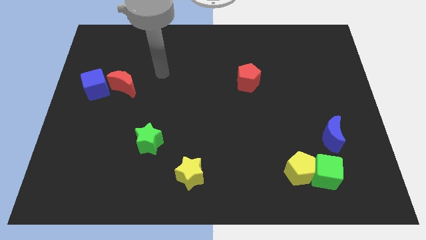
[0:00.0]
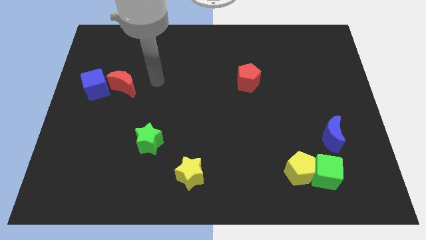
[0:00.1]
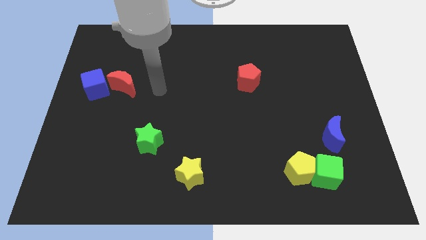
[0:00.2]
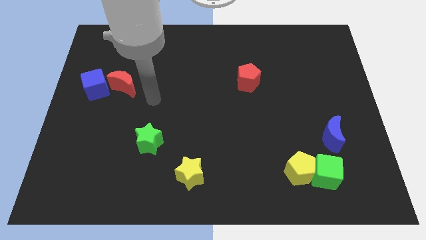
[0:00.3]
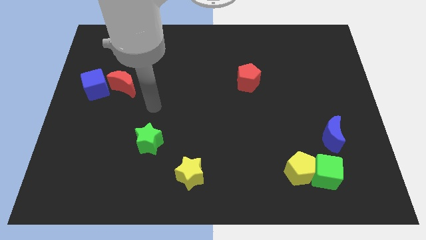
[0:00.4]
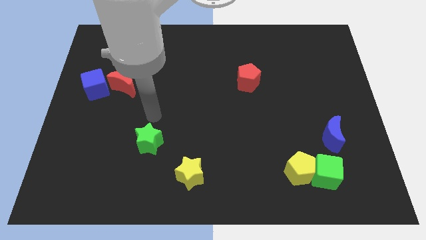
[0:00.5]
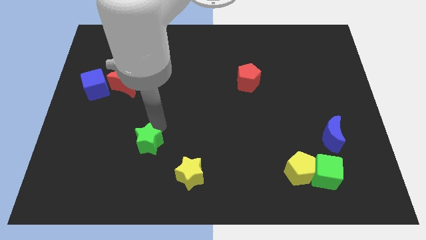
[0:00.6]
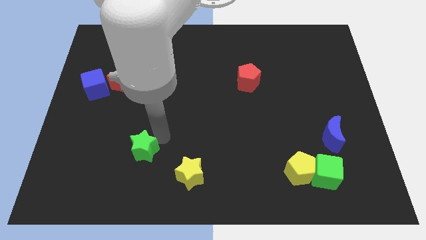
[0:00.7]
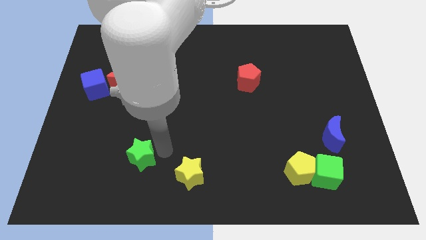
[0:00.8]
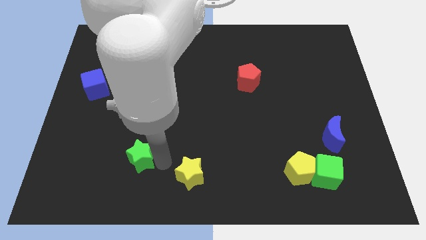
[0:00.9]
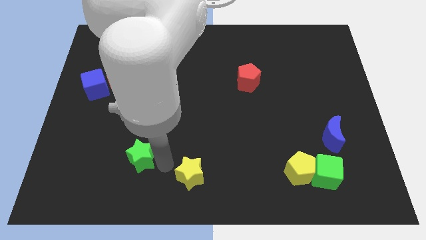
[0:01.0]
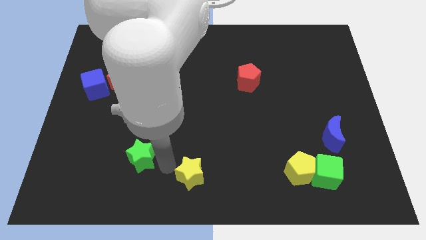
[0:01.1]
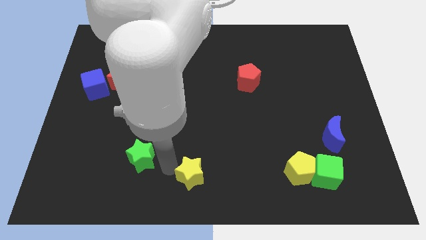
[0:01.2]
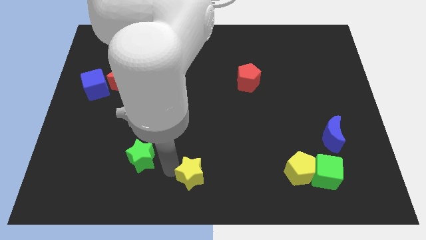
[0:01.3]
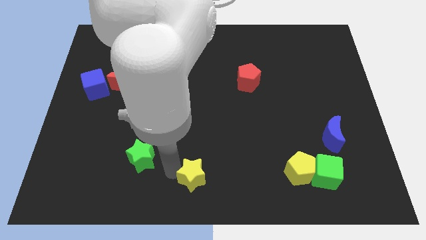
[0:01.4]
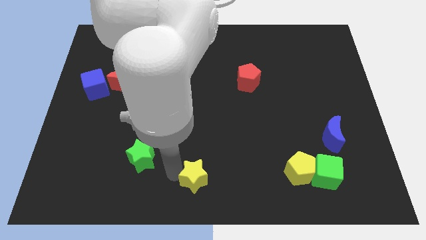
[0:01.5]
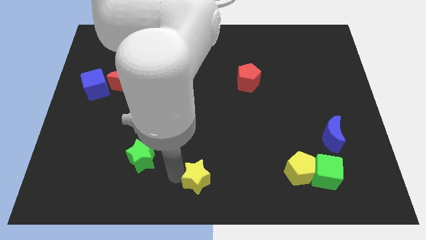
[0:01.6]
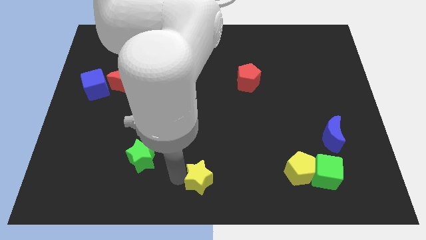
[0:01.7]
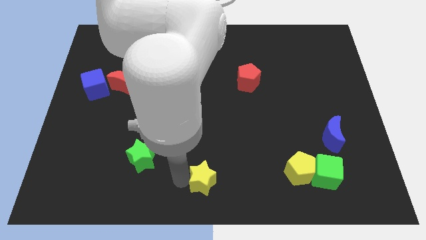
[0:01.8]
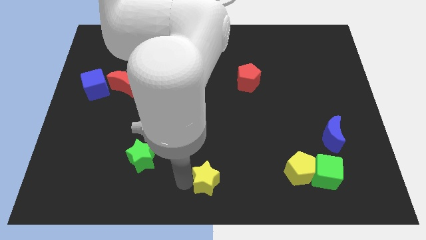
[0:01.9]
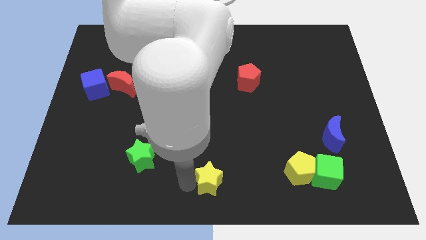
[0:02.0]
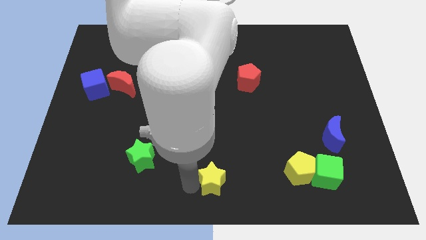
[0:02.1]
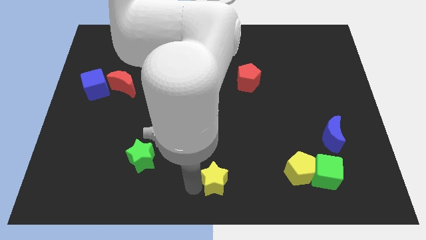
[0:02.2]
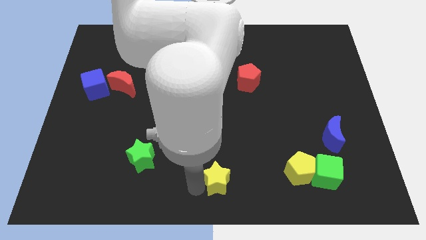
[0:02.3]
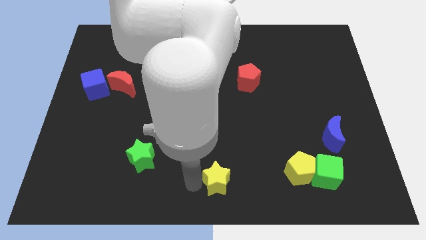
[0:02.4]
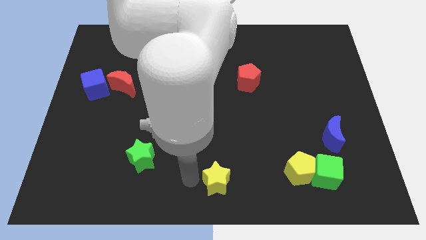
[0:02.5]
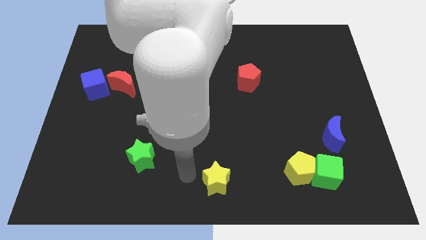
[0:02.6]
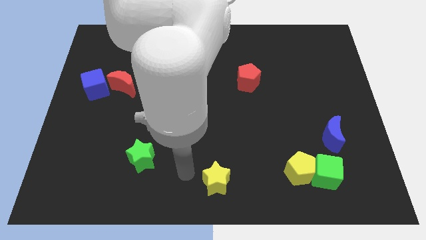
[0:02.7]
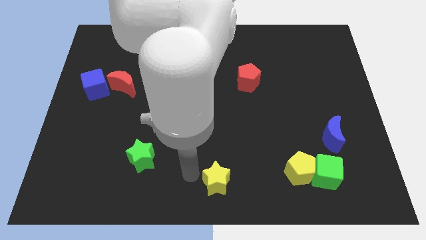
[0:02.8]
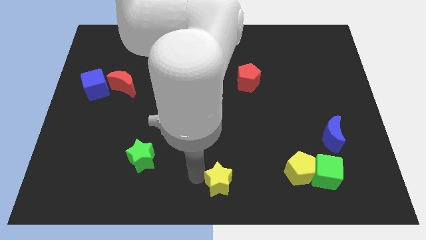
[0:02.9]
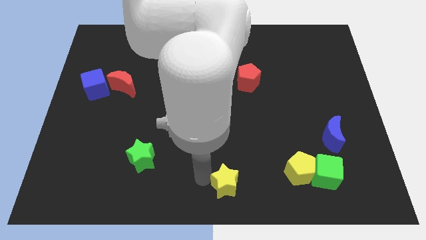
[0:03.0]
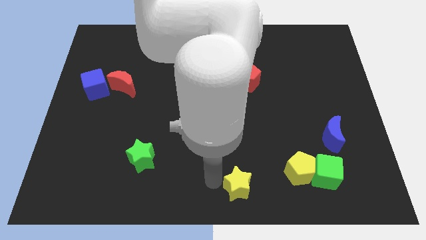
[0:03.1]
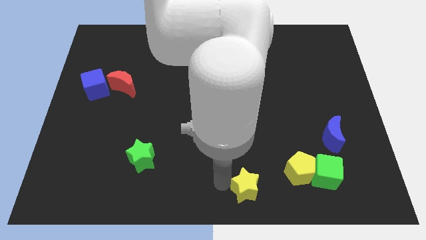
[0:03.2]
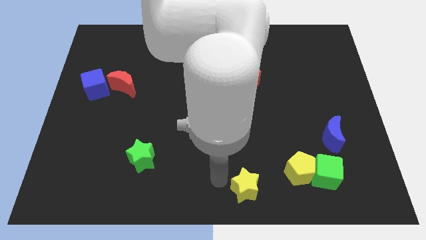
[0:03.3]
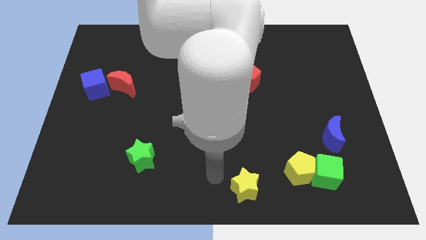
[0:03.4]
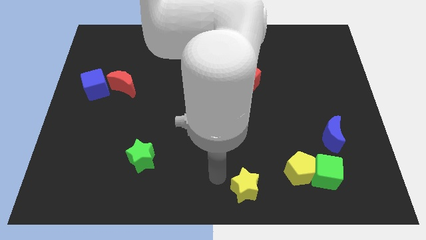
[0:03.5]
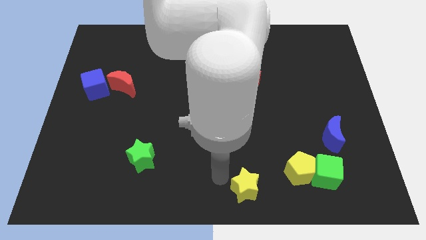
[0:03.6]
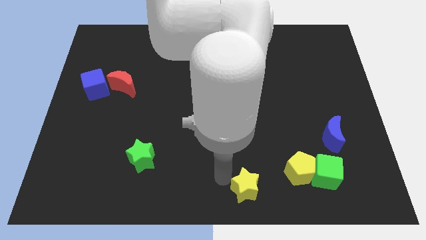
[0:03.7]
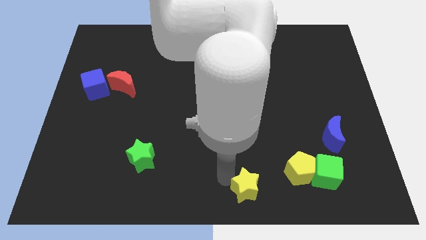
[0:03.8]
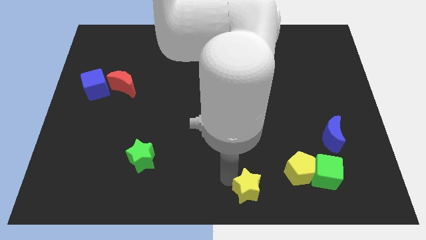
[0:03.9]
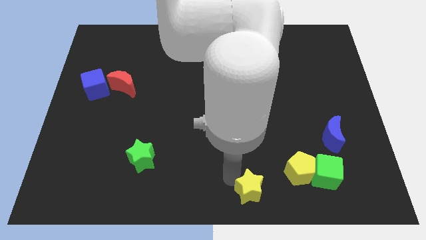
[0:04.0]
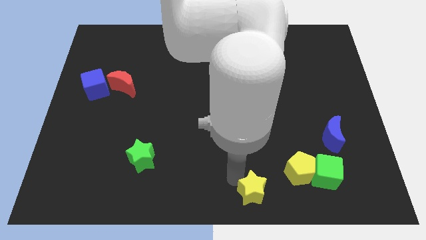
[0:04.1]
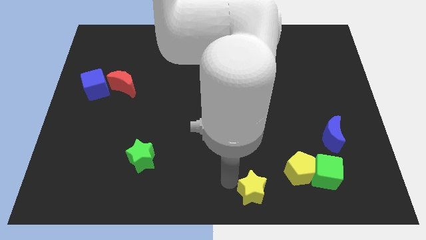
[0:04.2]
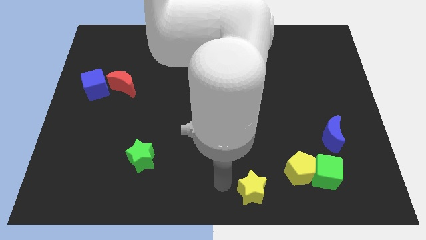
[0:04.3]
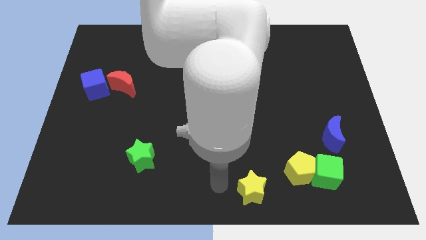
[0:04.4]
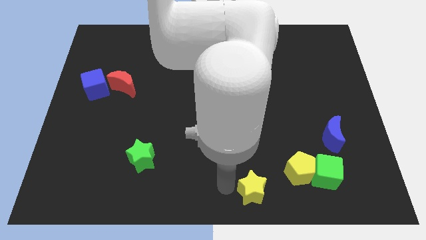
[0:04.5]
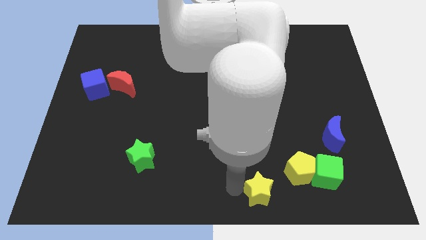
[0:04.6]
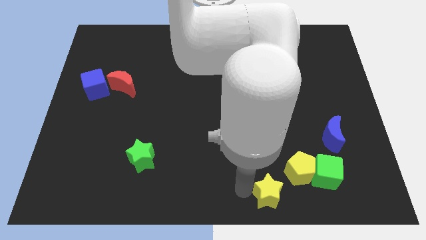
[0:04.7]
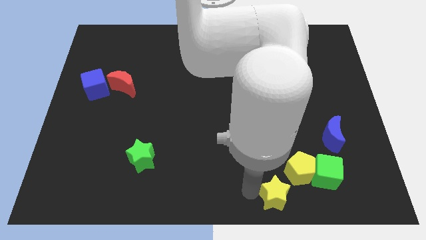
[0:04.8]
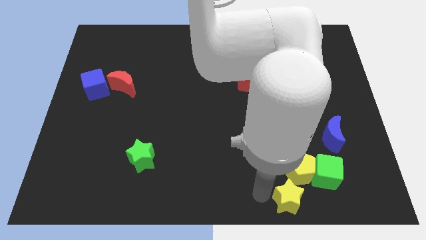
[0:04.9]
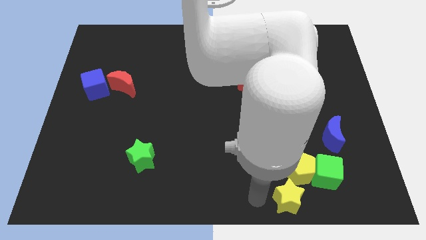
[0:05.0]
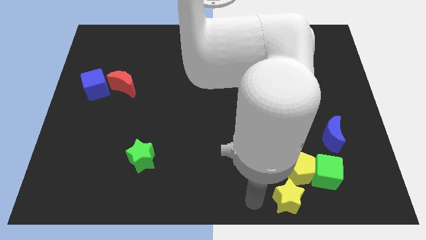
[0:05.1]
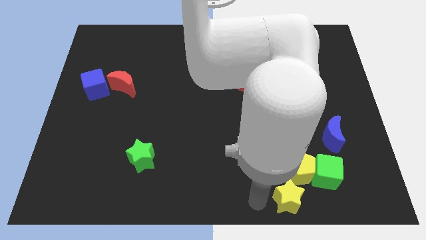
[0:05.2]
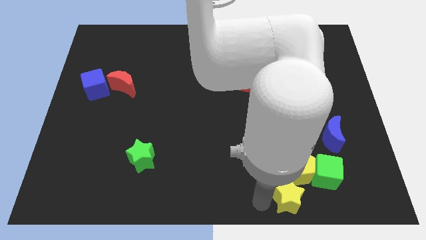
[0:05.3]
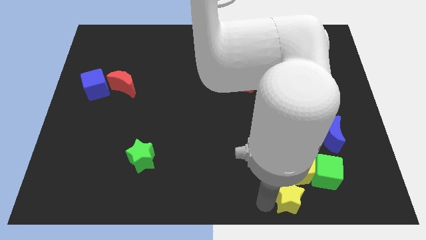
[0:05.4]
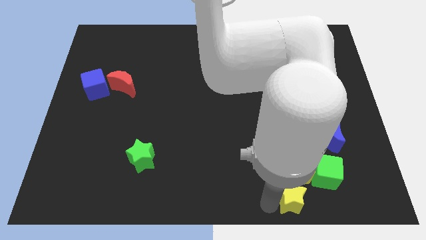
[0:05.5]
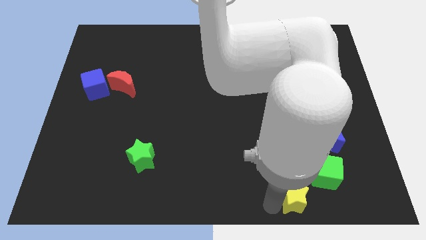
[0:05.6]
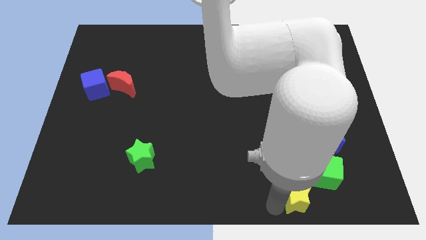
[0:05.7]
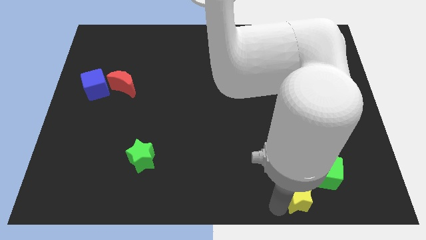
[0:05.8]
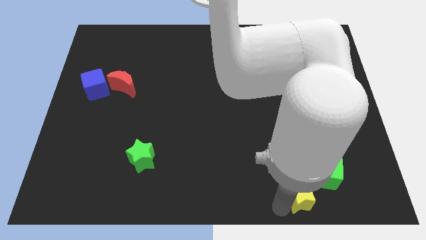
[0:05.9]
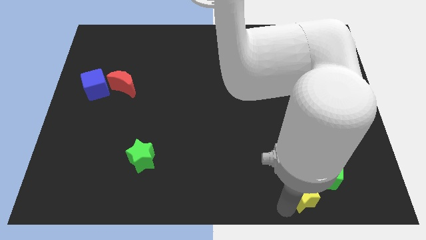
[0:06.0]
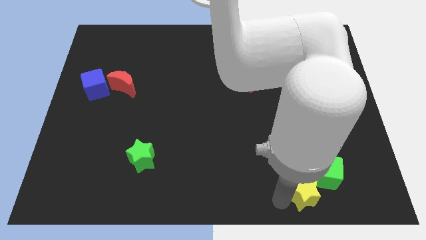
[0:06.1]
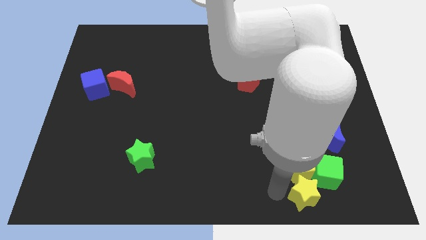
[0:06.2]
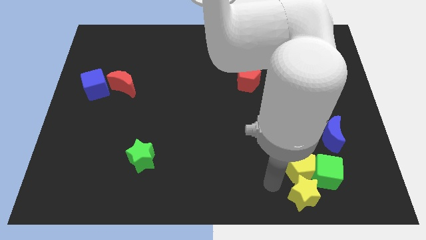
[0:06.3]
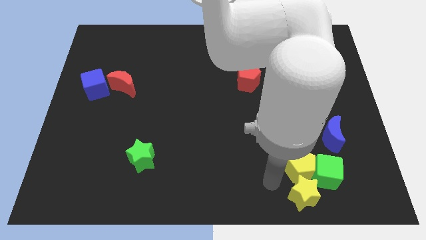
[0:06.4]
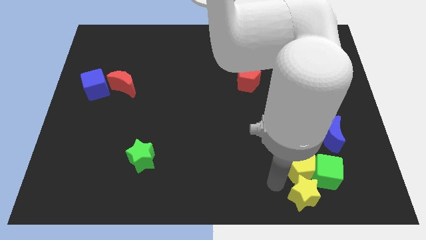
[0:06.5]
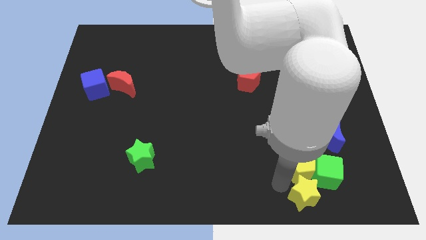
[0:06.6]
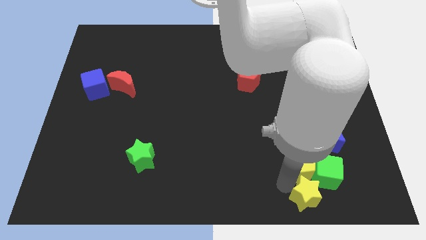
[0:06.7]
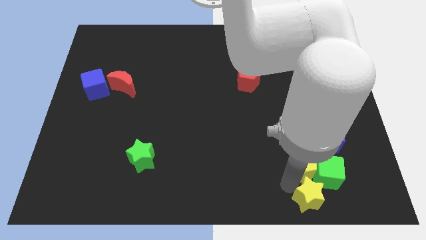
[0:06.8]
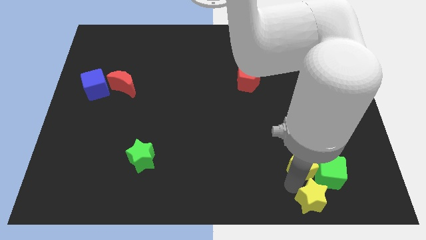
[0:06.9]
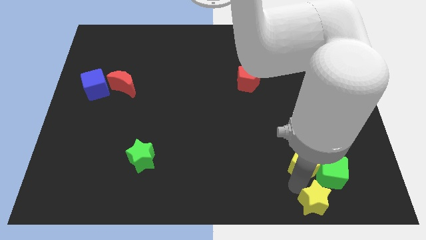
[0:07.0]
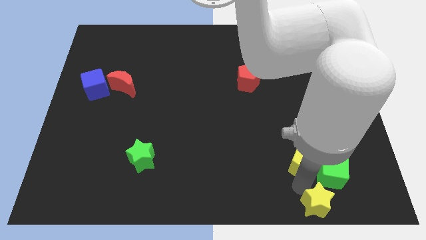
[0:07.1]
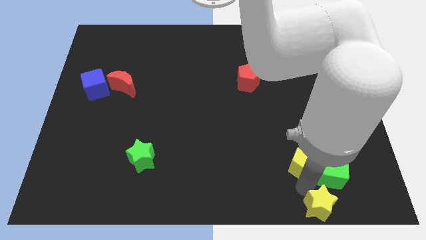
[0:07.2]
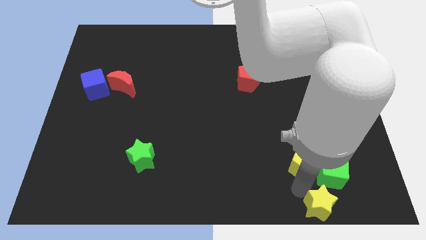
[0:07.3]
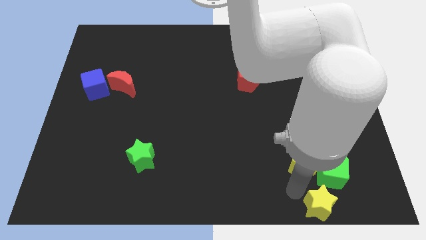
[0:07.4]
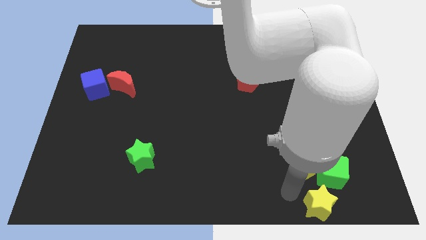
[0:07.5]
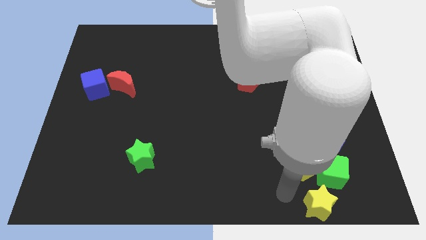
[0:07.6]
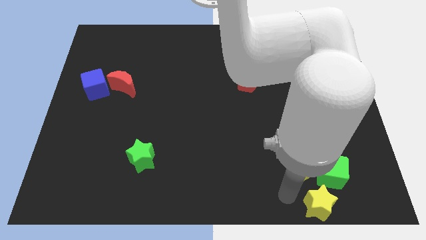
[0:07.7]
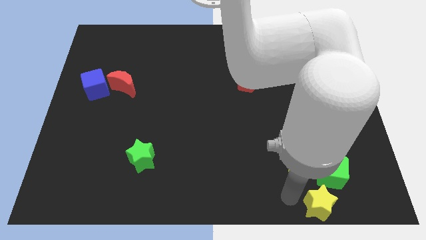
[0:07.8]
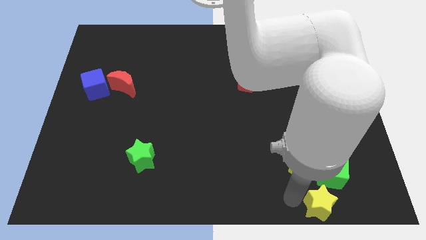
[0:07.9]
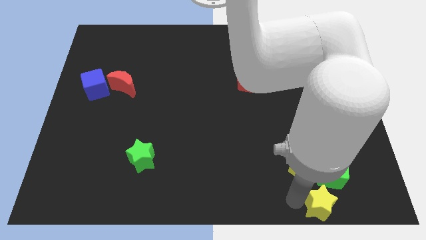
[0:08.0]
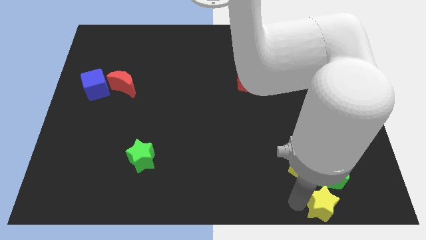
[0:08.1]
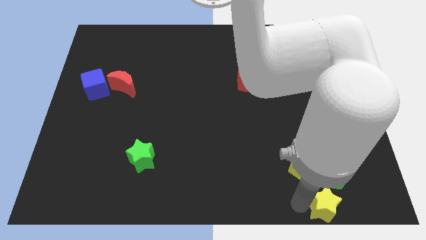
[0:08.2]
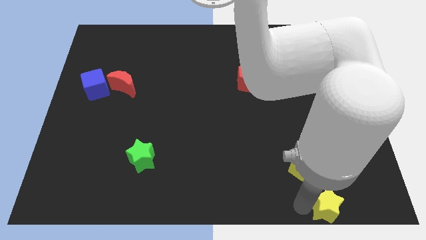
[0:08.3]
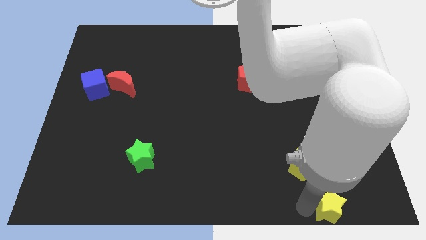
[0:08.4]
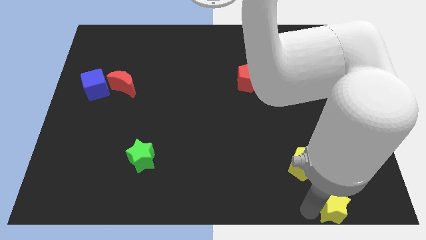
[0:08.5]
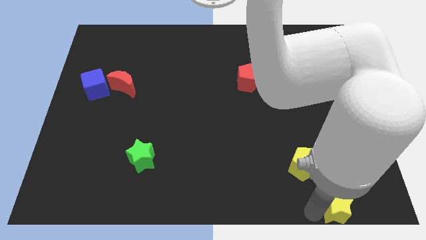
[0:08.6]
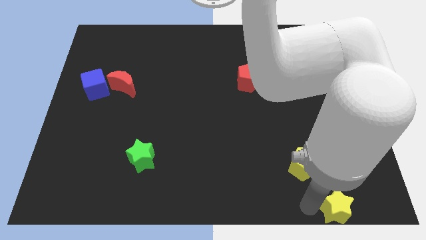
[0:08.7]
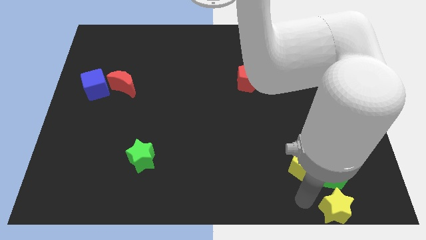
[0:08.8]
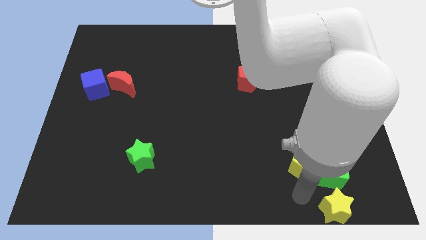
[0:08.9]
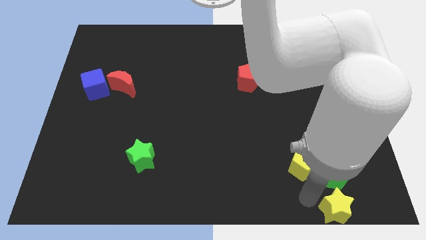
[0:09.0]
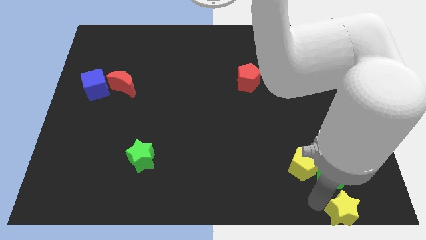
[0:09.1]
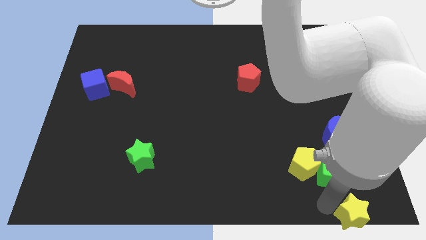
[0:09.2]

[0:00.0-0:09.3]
put the yellow star to the lower right corner
